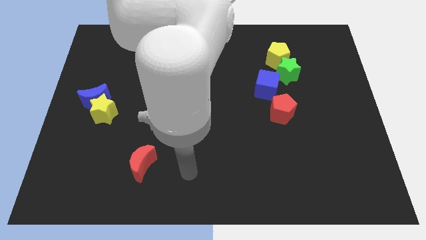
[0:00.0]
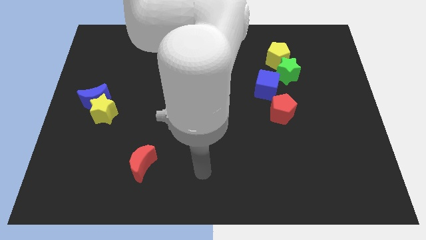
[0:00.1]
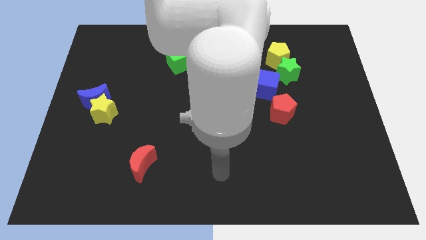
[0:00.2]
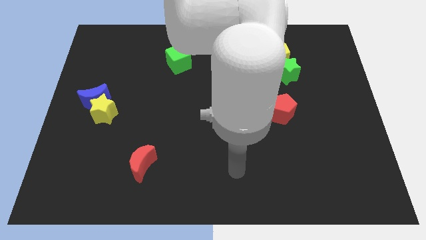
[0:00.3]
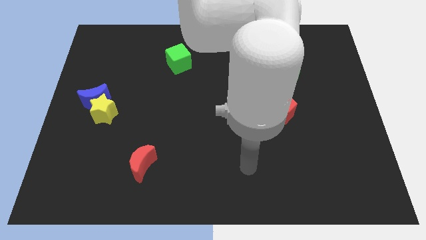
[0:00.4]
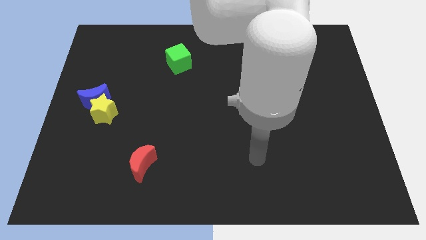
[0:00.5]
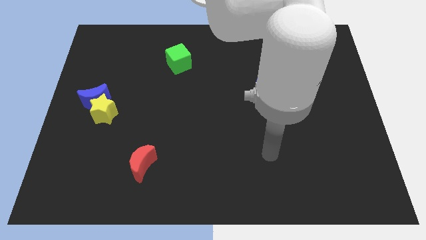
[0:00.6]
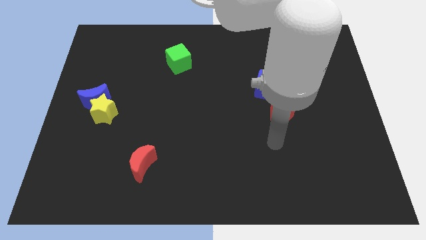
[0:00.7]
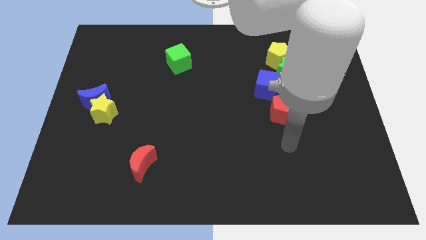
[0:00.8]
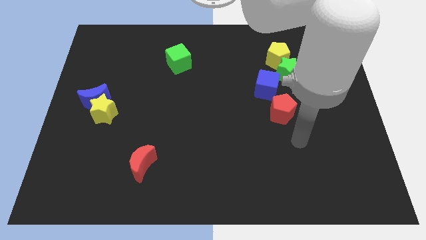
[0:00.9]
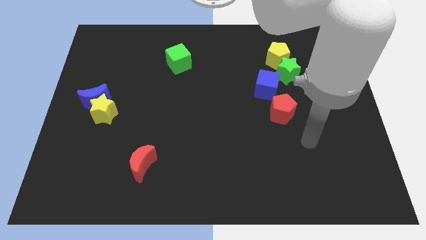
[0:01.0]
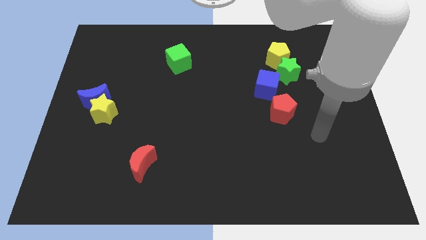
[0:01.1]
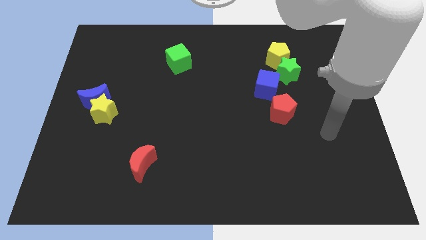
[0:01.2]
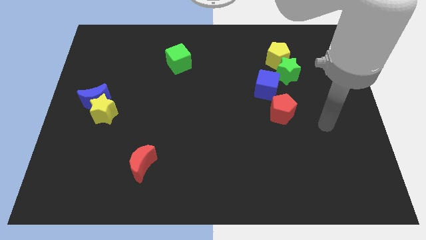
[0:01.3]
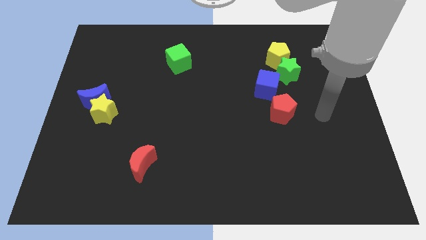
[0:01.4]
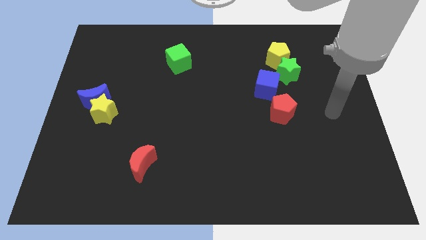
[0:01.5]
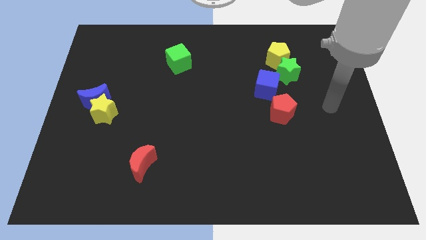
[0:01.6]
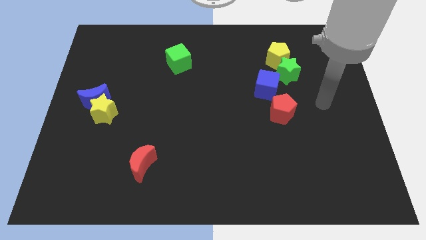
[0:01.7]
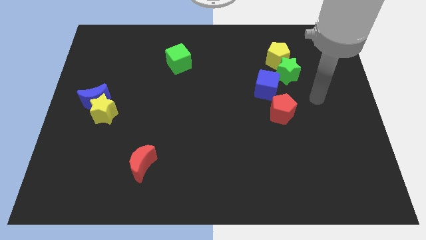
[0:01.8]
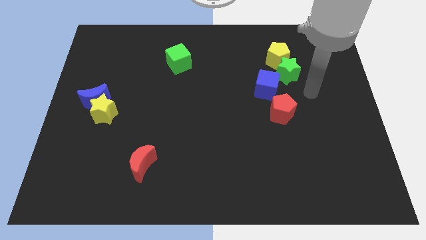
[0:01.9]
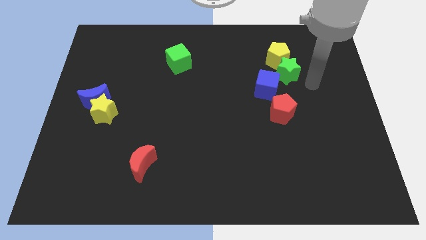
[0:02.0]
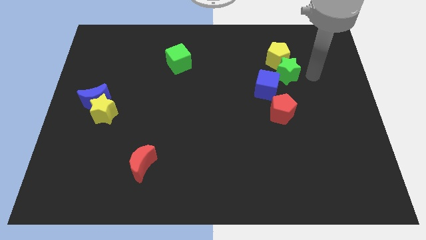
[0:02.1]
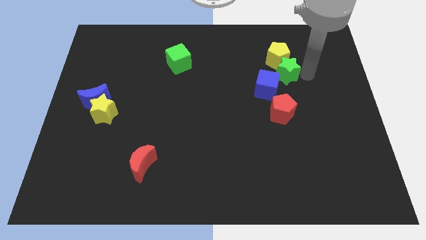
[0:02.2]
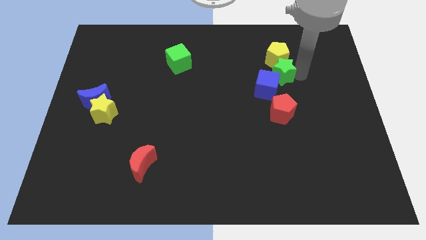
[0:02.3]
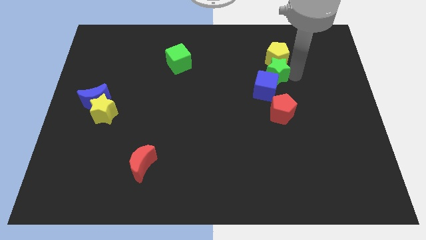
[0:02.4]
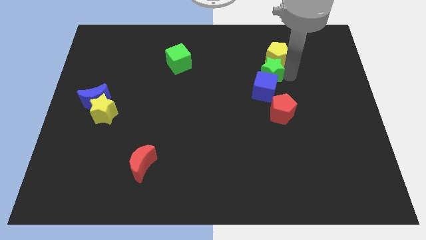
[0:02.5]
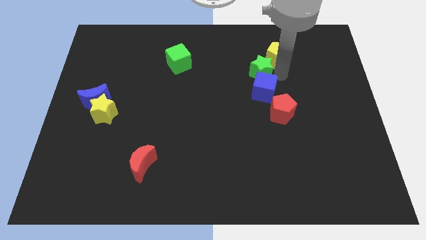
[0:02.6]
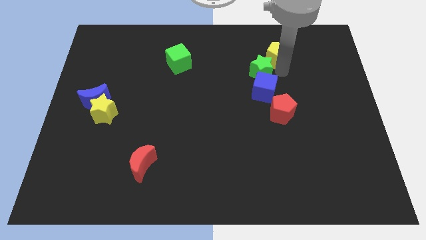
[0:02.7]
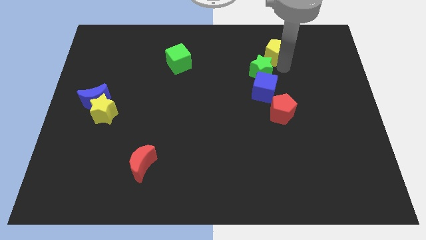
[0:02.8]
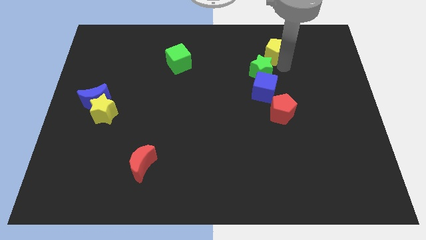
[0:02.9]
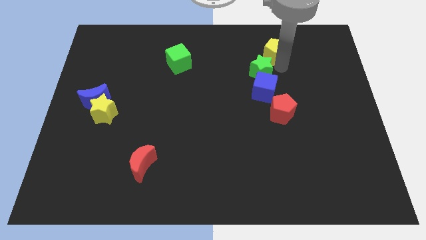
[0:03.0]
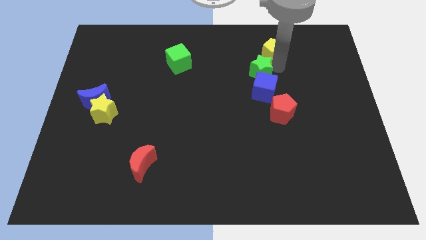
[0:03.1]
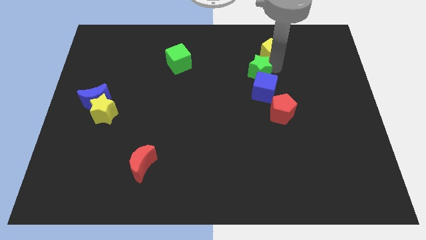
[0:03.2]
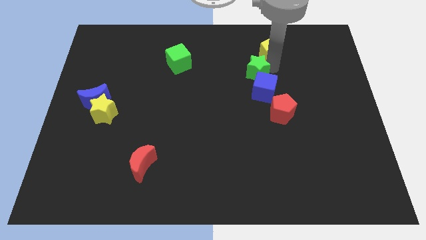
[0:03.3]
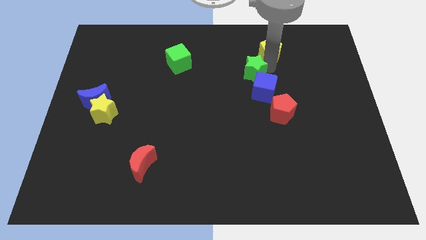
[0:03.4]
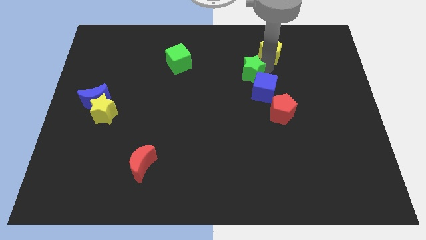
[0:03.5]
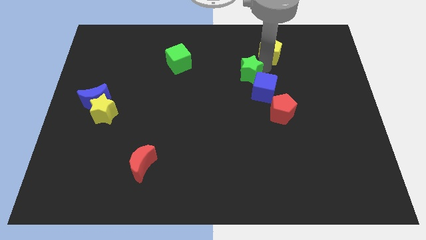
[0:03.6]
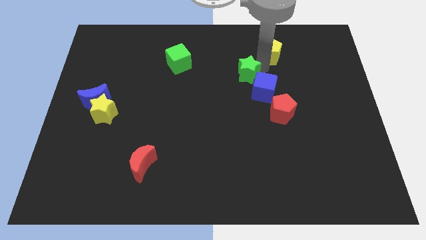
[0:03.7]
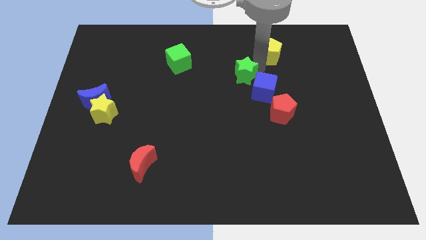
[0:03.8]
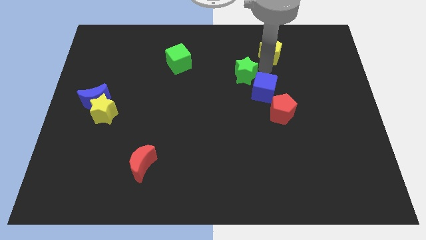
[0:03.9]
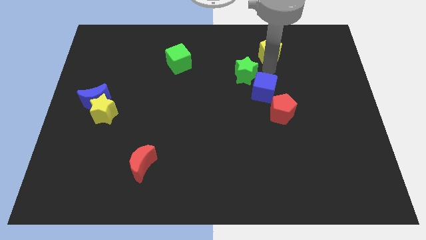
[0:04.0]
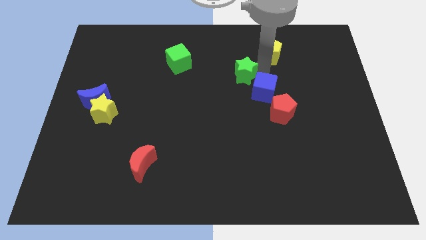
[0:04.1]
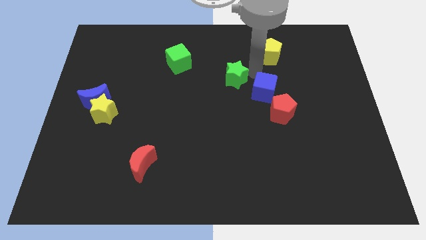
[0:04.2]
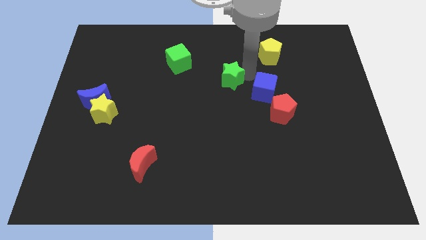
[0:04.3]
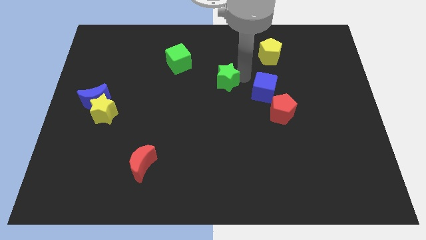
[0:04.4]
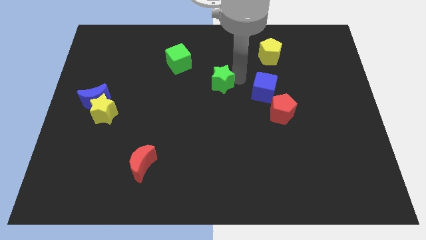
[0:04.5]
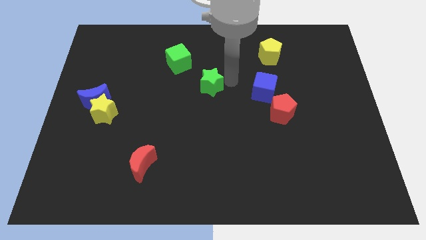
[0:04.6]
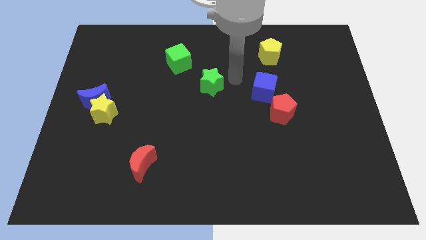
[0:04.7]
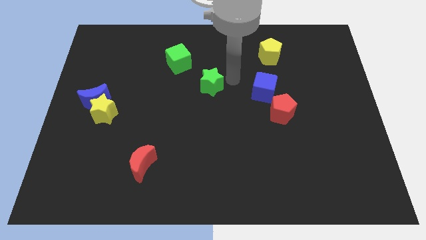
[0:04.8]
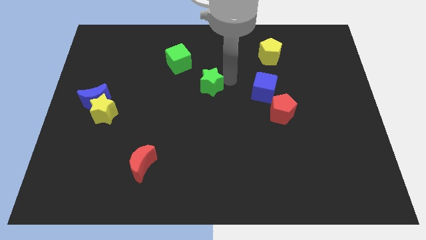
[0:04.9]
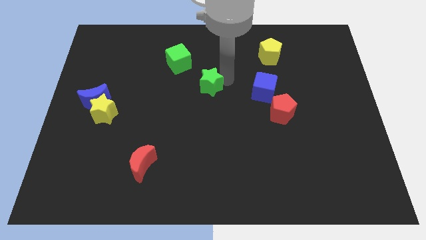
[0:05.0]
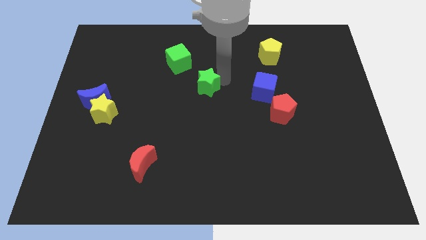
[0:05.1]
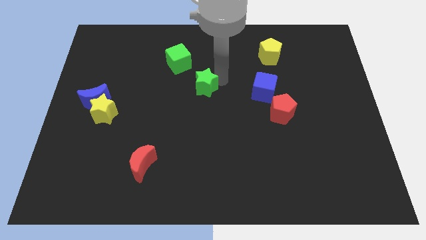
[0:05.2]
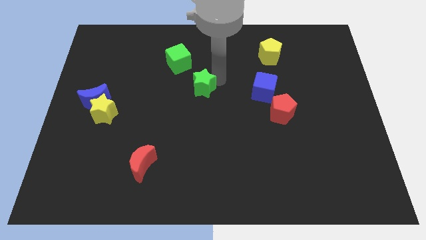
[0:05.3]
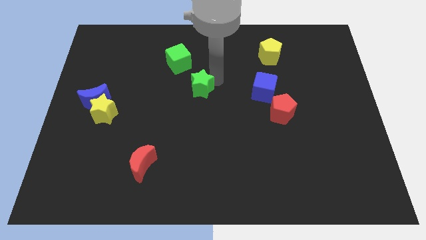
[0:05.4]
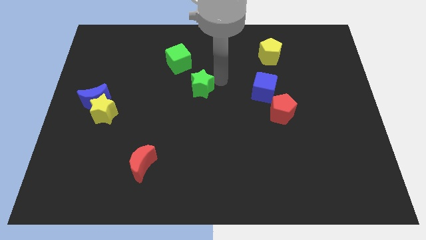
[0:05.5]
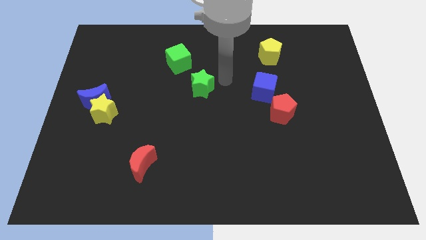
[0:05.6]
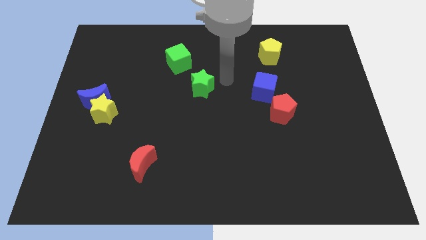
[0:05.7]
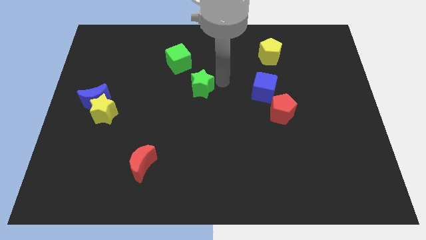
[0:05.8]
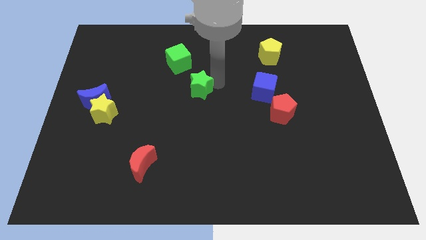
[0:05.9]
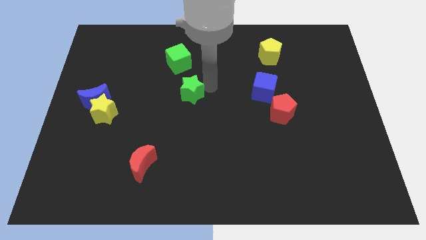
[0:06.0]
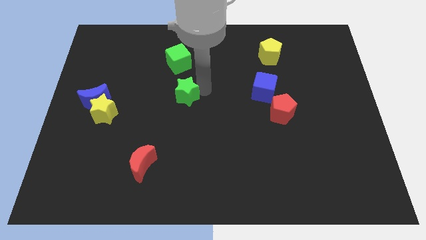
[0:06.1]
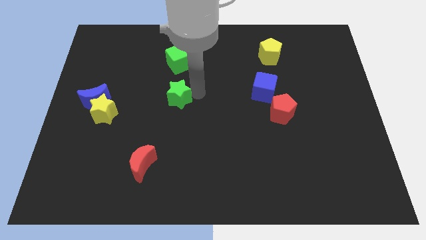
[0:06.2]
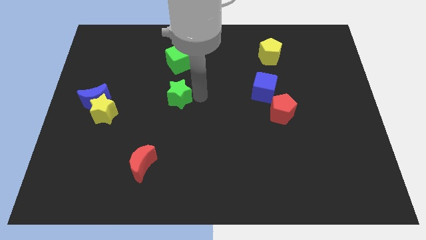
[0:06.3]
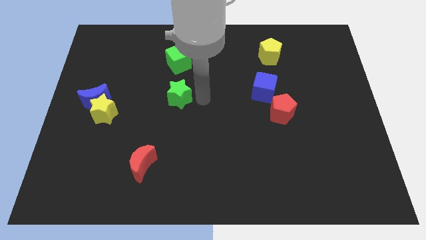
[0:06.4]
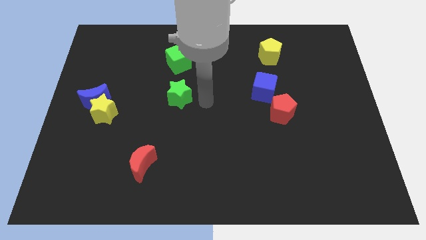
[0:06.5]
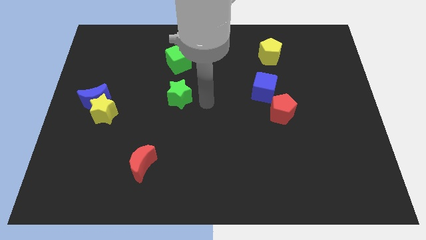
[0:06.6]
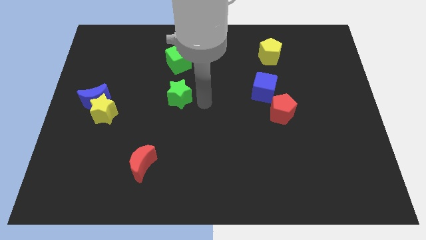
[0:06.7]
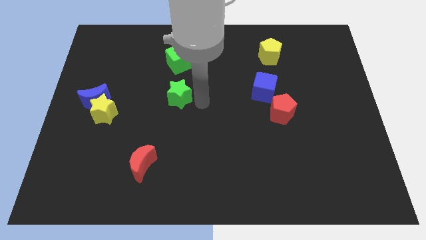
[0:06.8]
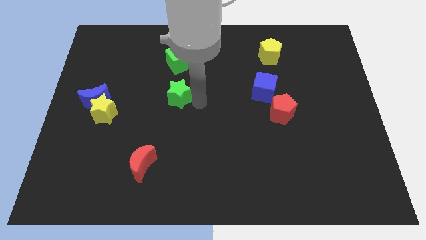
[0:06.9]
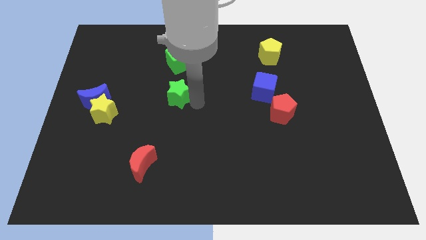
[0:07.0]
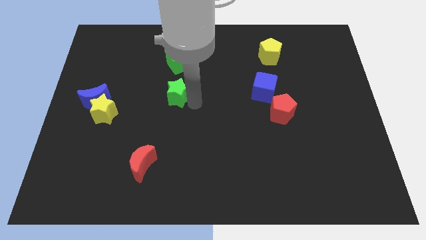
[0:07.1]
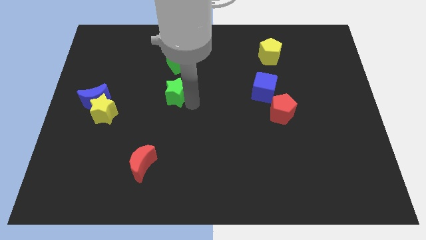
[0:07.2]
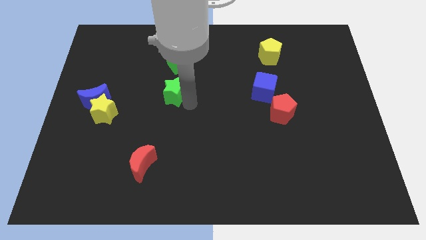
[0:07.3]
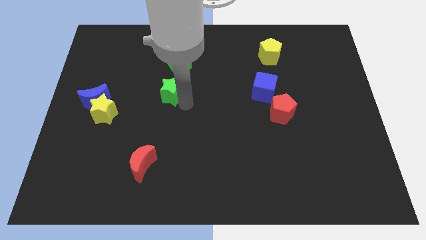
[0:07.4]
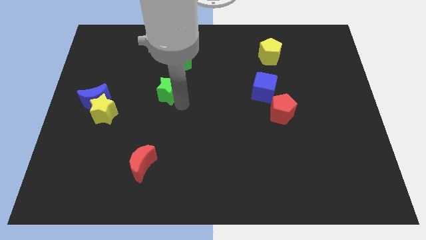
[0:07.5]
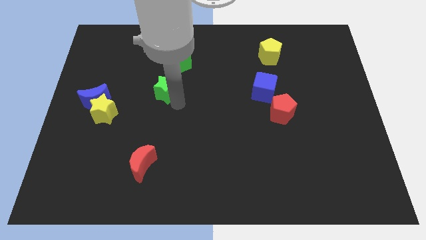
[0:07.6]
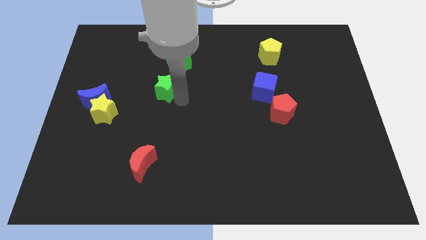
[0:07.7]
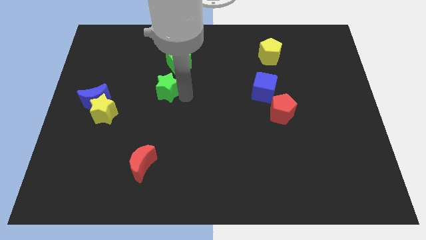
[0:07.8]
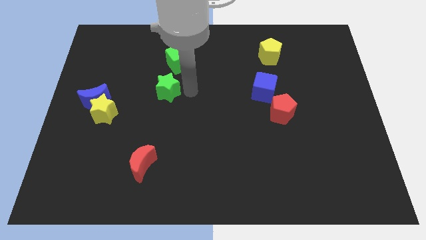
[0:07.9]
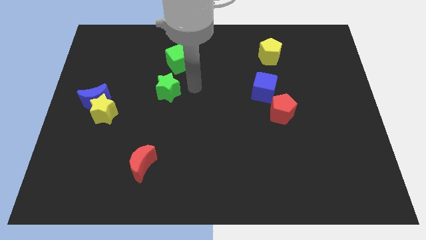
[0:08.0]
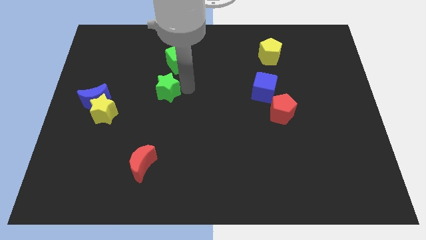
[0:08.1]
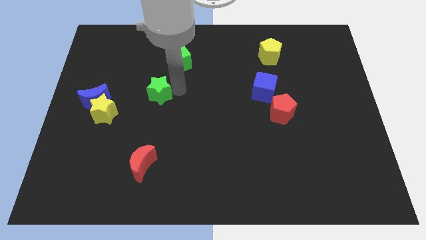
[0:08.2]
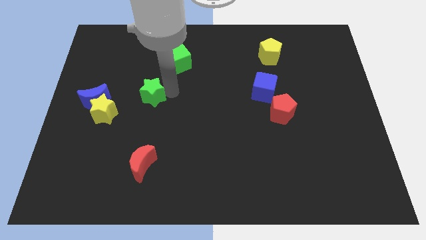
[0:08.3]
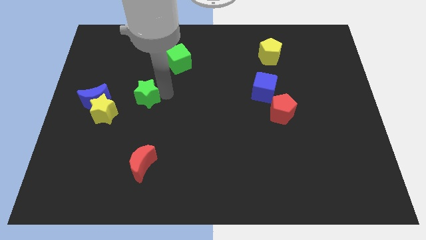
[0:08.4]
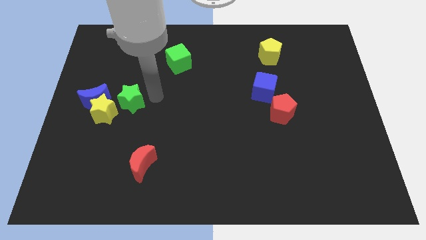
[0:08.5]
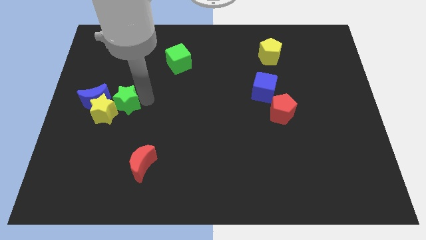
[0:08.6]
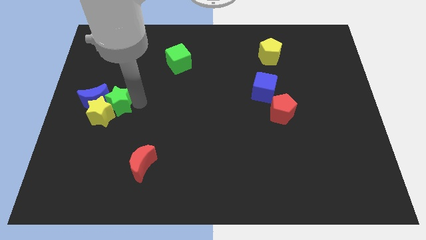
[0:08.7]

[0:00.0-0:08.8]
slide the green star to the blue moon
